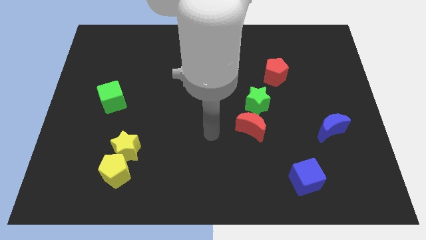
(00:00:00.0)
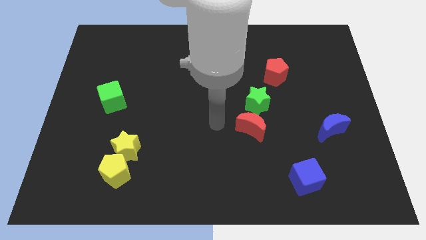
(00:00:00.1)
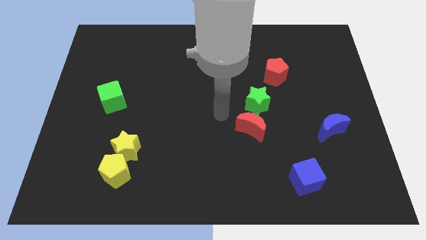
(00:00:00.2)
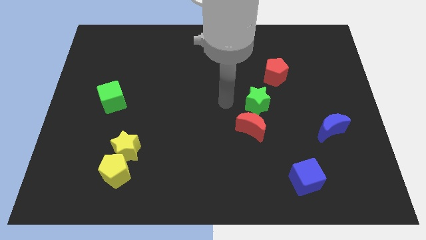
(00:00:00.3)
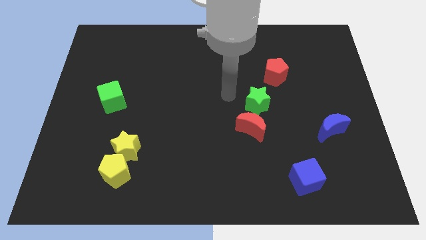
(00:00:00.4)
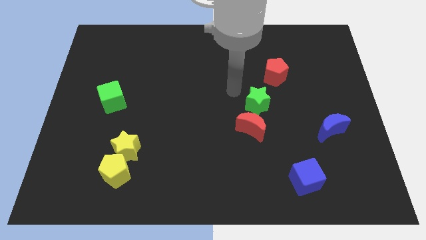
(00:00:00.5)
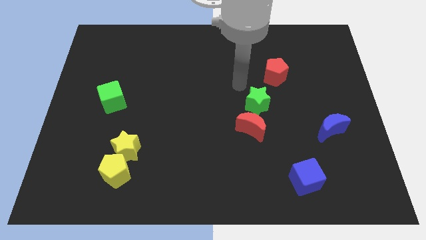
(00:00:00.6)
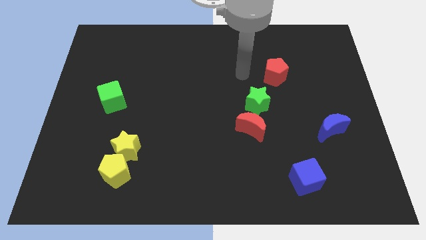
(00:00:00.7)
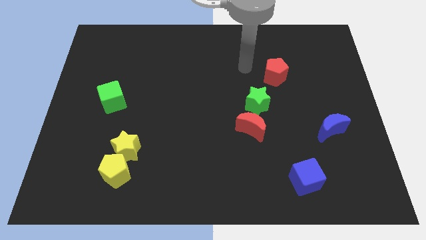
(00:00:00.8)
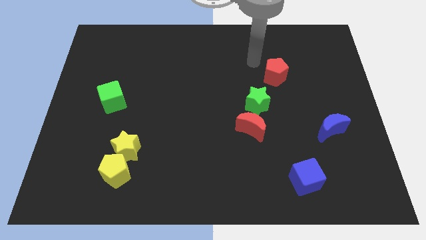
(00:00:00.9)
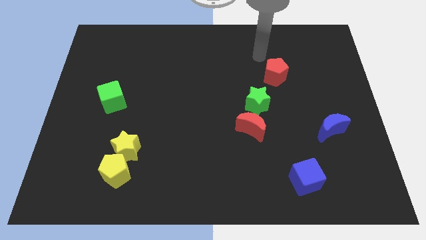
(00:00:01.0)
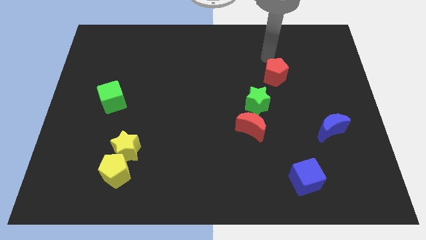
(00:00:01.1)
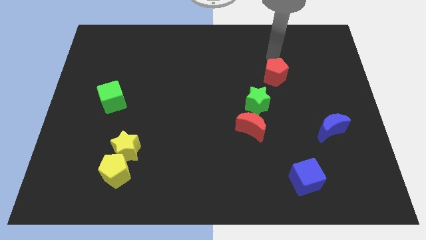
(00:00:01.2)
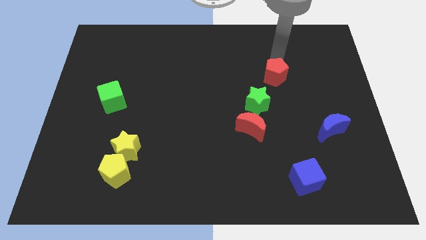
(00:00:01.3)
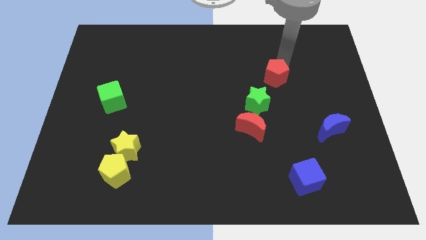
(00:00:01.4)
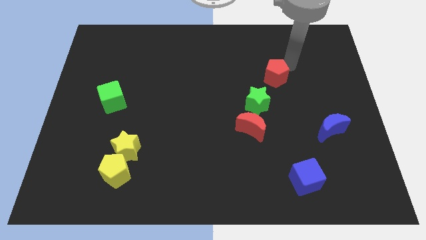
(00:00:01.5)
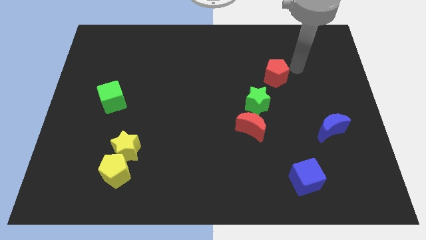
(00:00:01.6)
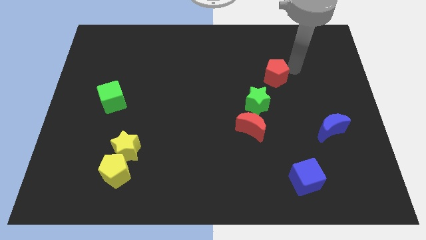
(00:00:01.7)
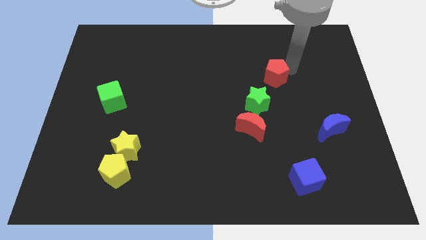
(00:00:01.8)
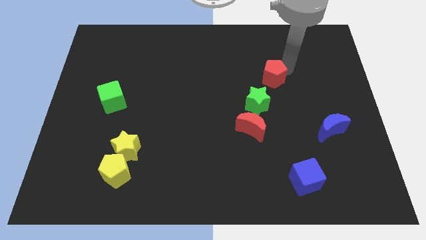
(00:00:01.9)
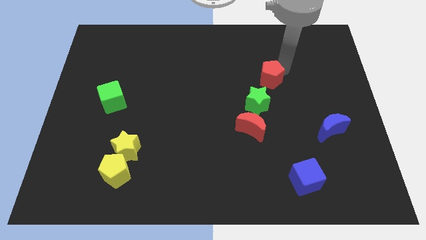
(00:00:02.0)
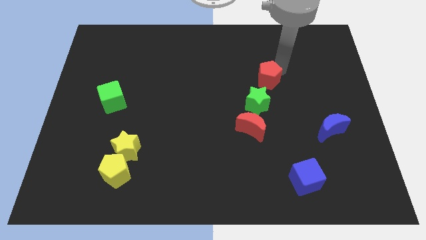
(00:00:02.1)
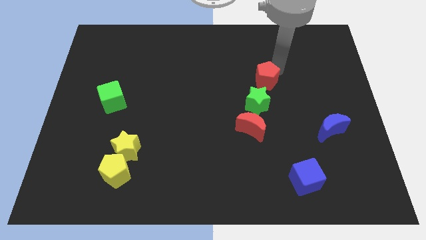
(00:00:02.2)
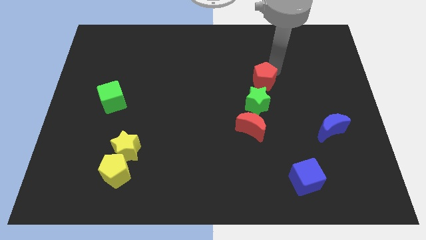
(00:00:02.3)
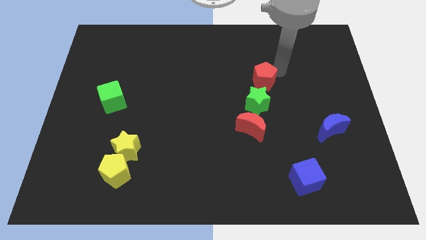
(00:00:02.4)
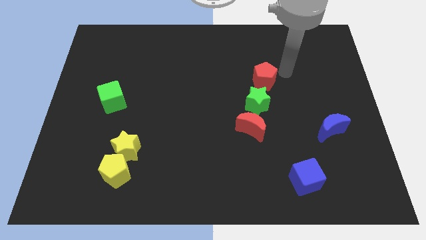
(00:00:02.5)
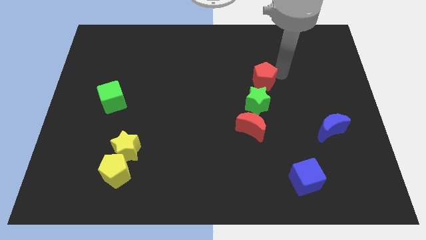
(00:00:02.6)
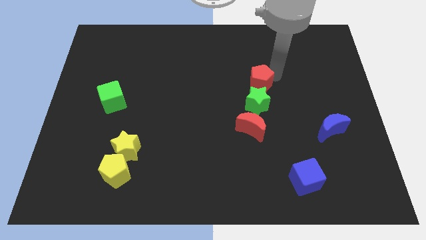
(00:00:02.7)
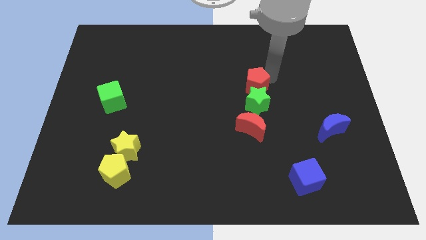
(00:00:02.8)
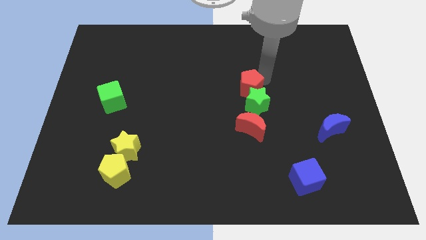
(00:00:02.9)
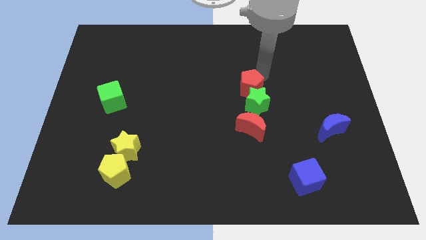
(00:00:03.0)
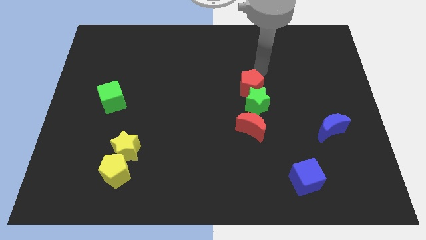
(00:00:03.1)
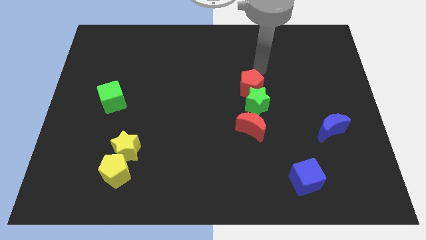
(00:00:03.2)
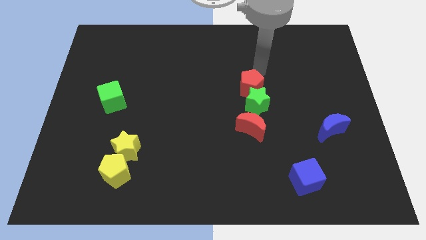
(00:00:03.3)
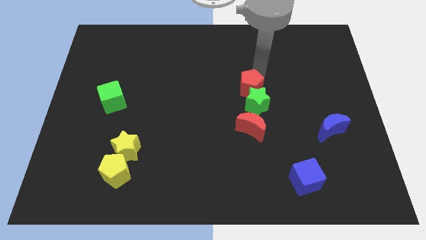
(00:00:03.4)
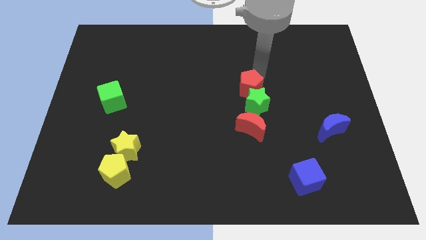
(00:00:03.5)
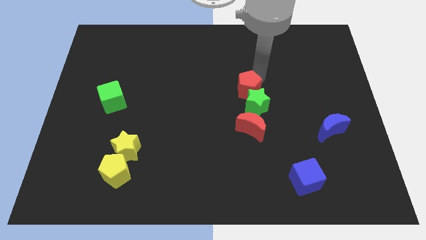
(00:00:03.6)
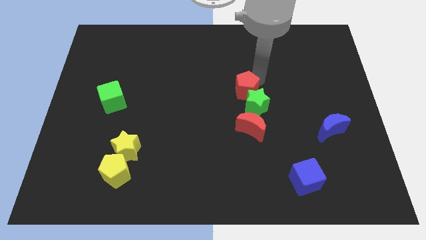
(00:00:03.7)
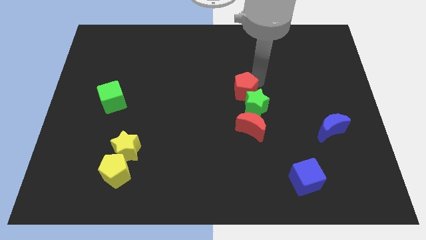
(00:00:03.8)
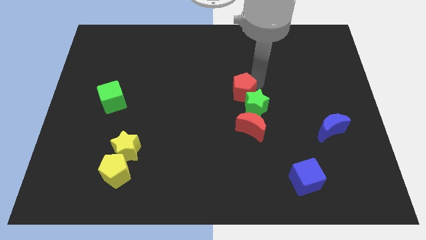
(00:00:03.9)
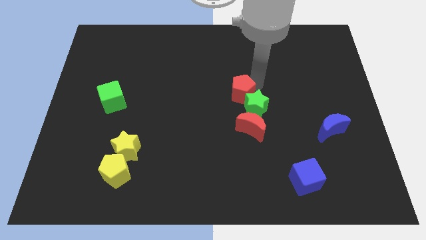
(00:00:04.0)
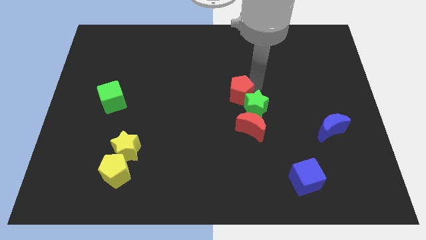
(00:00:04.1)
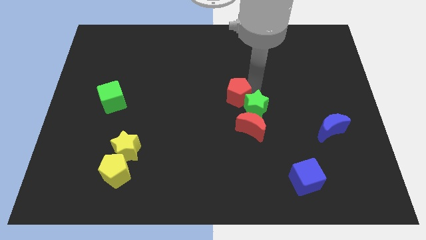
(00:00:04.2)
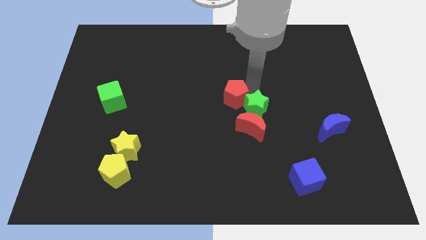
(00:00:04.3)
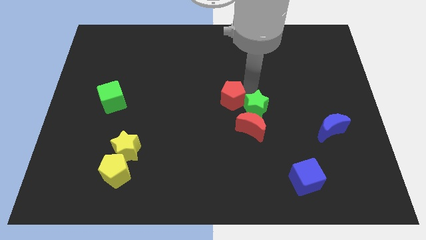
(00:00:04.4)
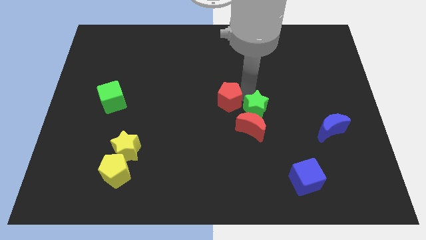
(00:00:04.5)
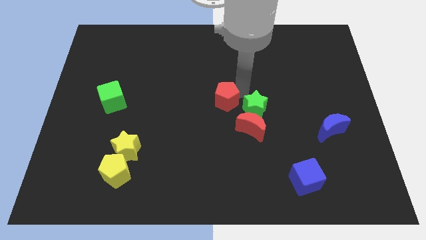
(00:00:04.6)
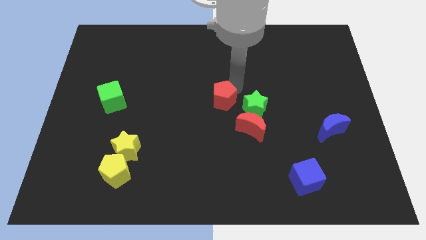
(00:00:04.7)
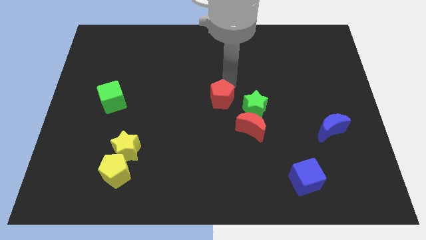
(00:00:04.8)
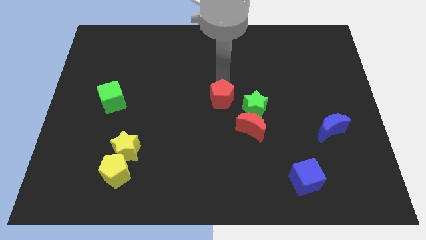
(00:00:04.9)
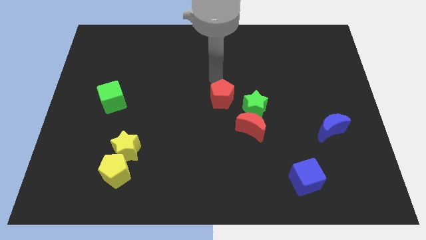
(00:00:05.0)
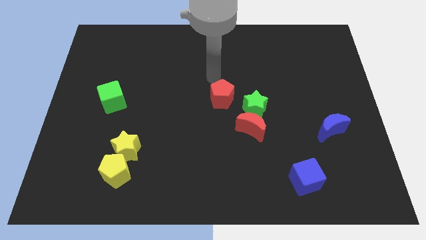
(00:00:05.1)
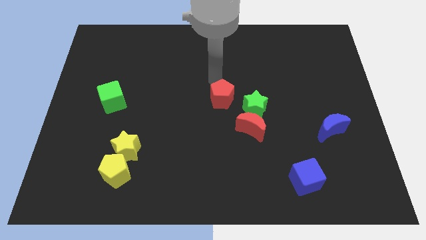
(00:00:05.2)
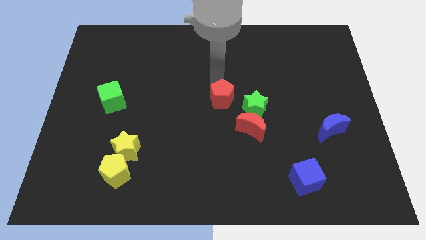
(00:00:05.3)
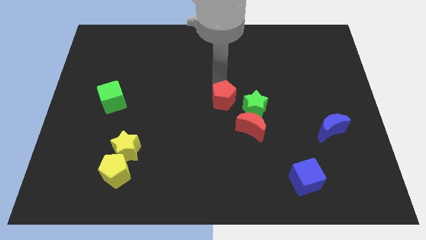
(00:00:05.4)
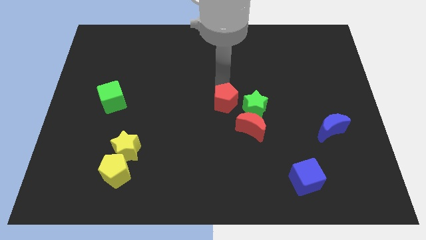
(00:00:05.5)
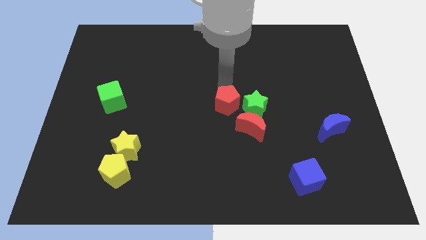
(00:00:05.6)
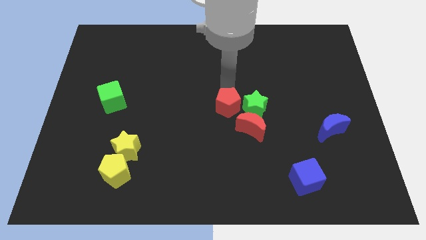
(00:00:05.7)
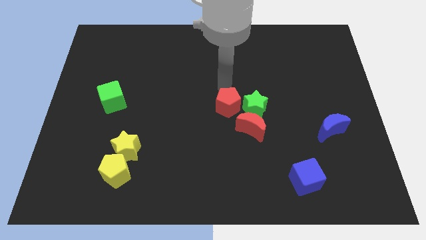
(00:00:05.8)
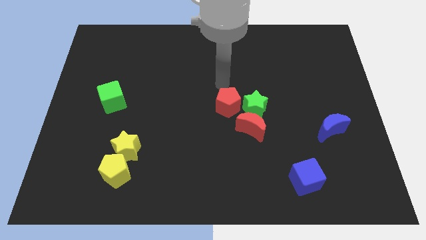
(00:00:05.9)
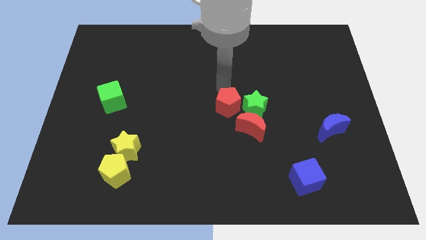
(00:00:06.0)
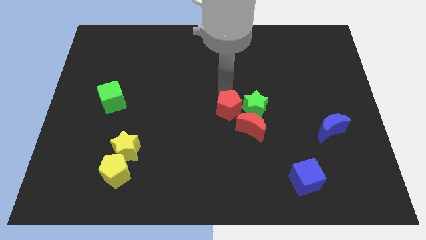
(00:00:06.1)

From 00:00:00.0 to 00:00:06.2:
put the red pentagon diagonally down and to the left of the green star

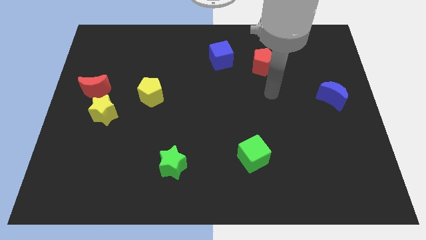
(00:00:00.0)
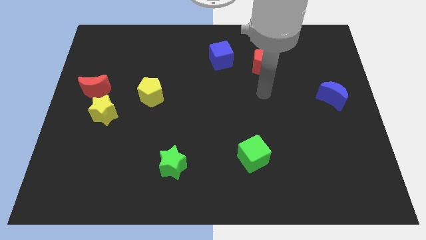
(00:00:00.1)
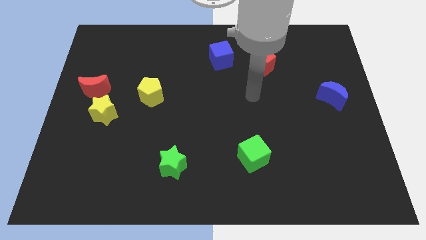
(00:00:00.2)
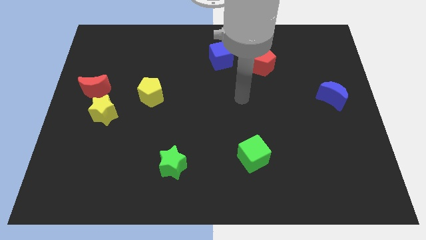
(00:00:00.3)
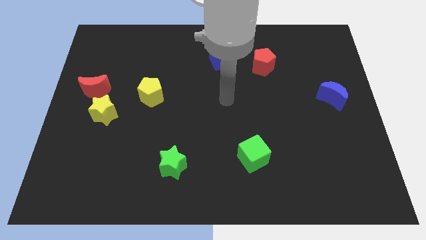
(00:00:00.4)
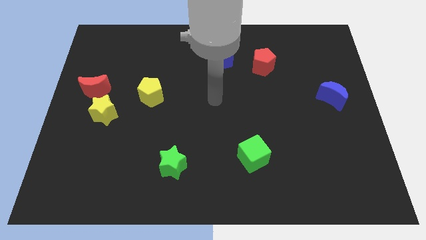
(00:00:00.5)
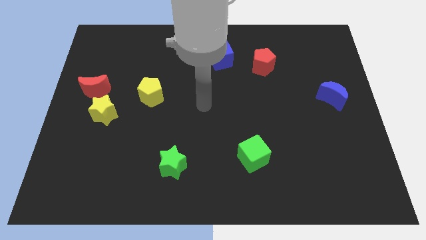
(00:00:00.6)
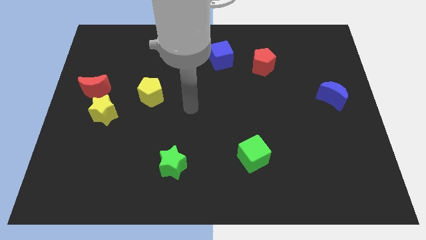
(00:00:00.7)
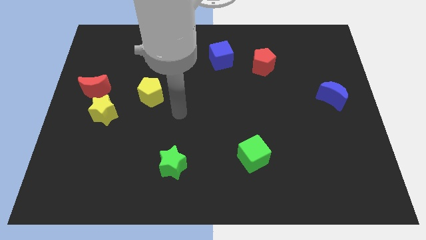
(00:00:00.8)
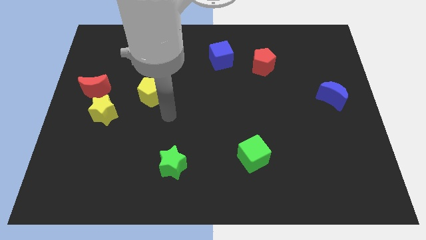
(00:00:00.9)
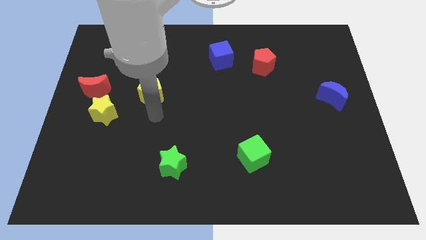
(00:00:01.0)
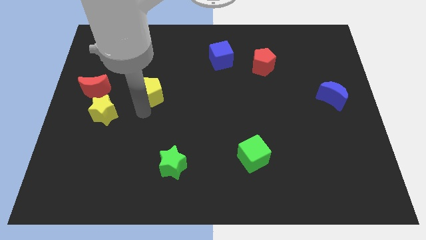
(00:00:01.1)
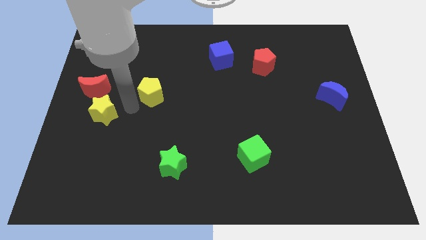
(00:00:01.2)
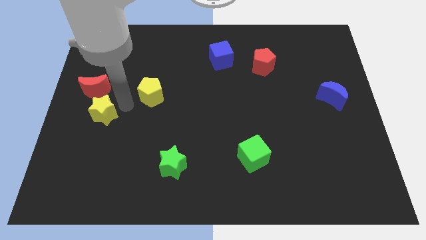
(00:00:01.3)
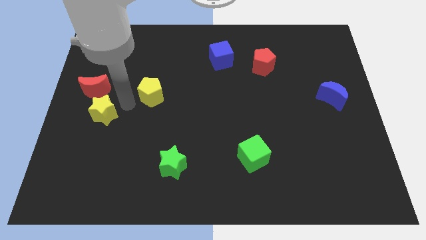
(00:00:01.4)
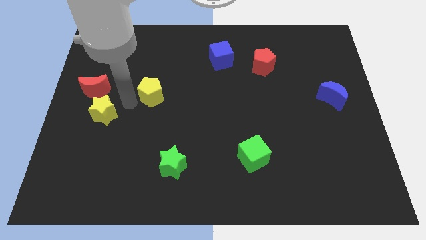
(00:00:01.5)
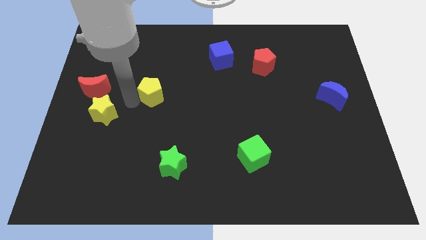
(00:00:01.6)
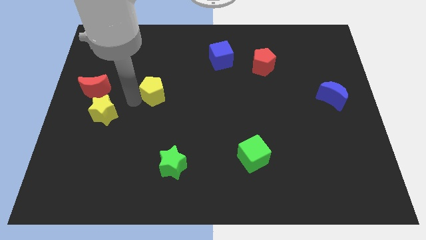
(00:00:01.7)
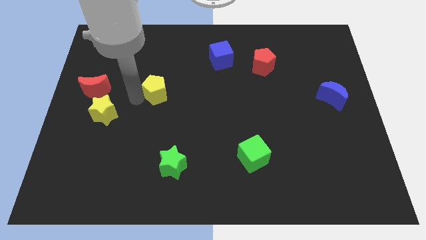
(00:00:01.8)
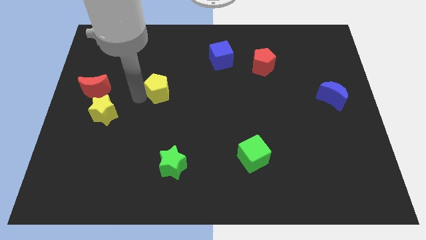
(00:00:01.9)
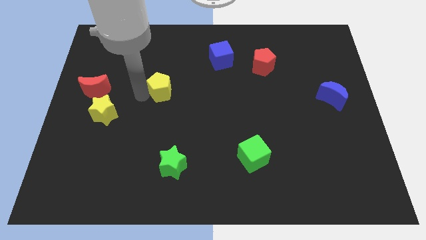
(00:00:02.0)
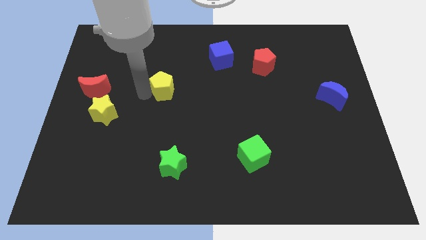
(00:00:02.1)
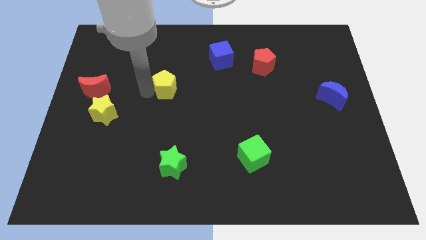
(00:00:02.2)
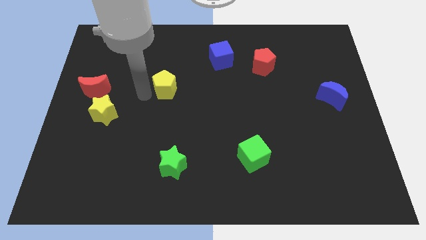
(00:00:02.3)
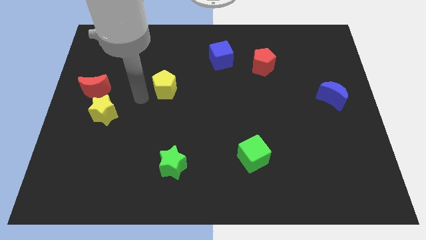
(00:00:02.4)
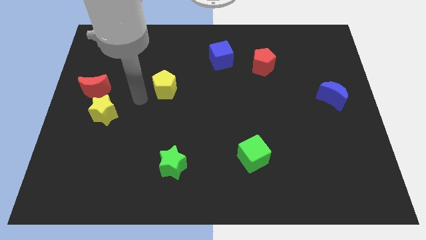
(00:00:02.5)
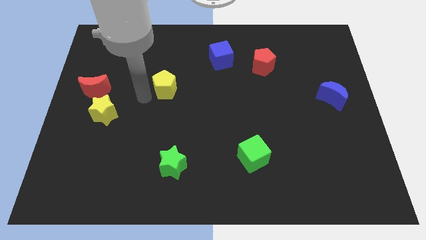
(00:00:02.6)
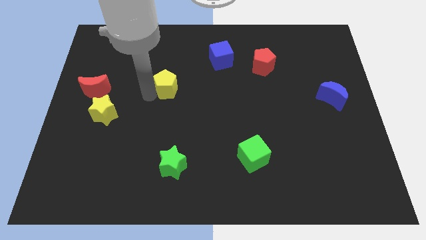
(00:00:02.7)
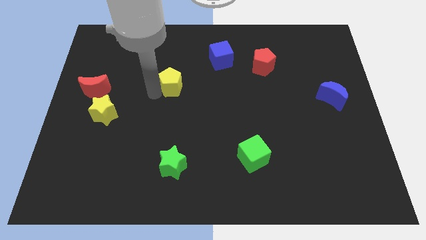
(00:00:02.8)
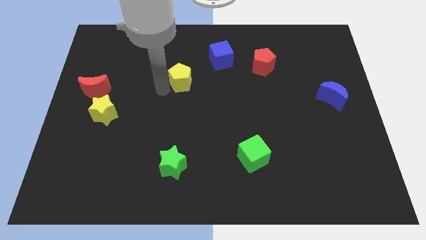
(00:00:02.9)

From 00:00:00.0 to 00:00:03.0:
move the yellow pentagon diagonally down and to the left of the blue cube
